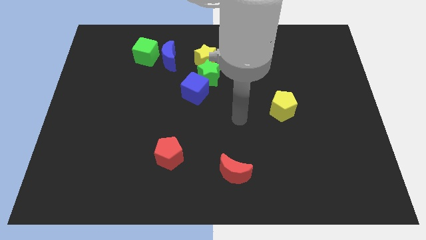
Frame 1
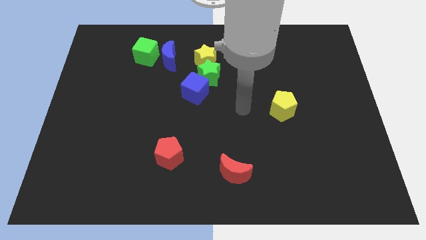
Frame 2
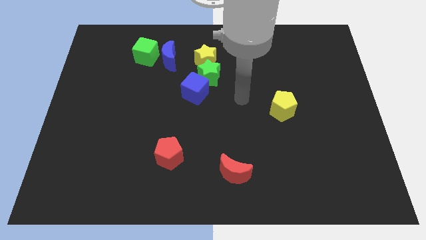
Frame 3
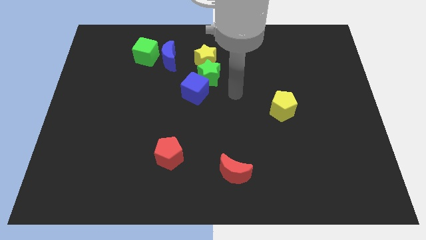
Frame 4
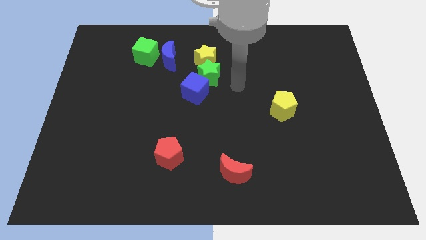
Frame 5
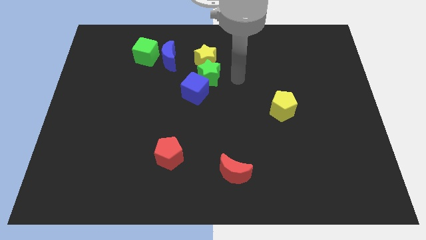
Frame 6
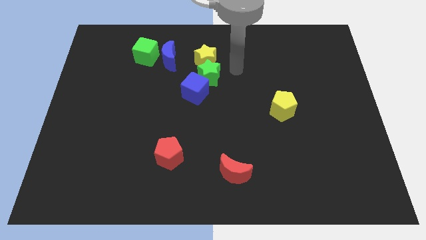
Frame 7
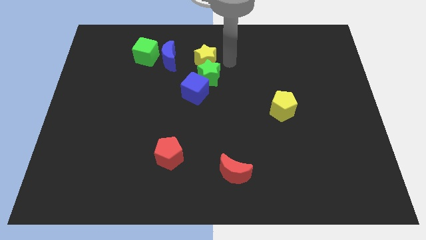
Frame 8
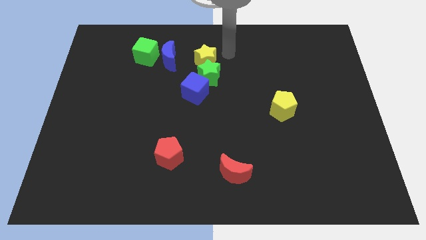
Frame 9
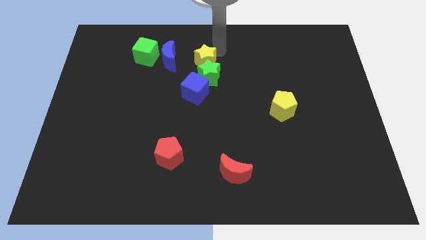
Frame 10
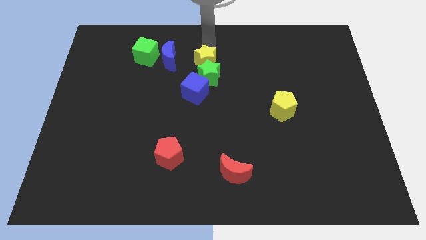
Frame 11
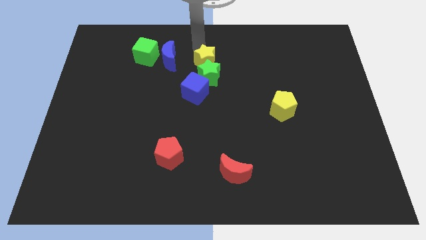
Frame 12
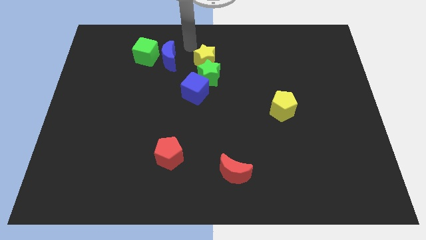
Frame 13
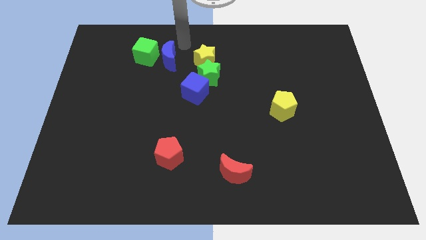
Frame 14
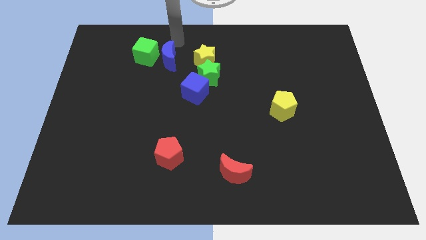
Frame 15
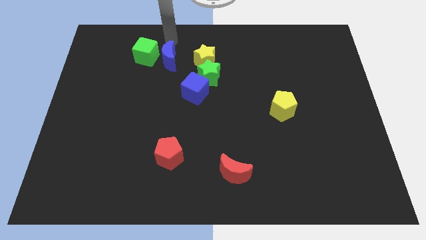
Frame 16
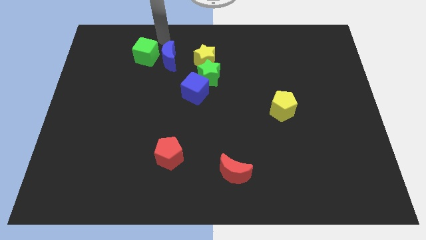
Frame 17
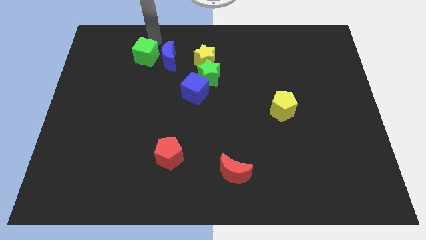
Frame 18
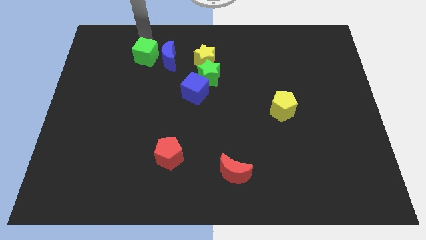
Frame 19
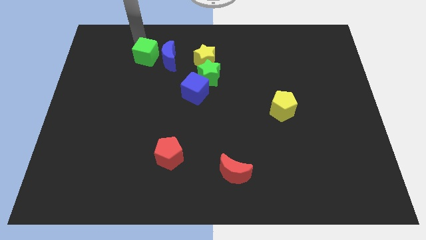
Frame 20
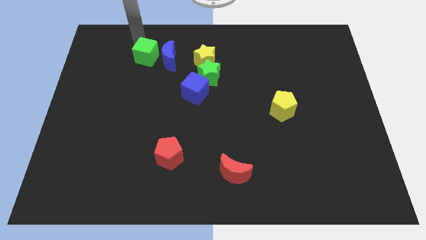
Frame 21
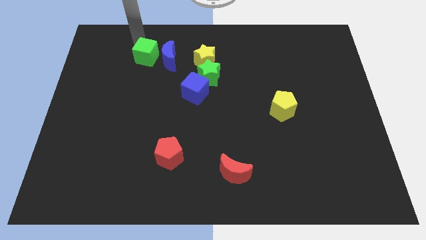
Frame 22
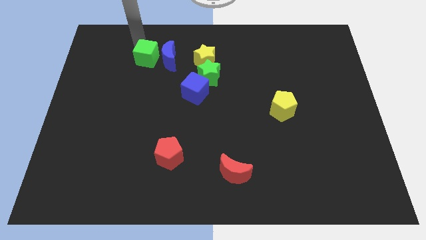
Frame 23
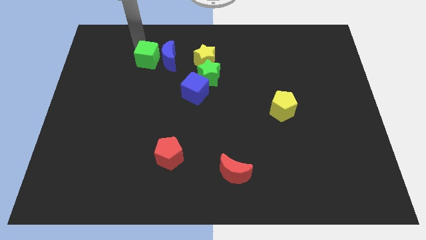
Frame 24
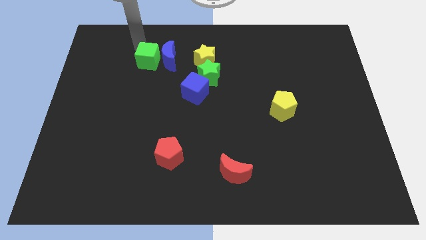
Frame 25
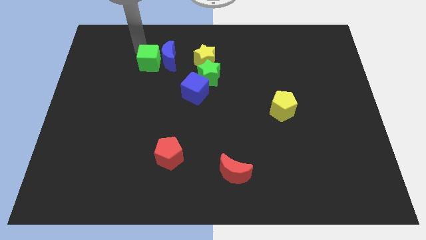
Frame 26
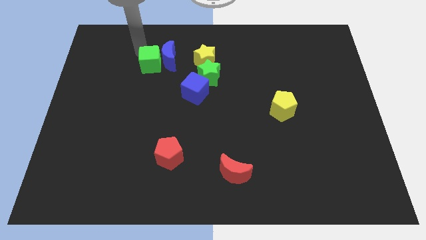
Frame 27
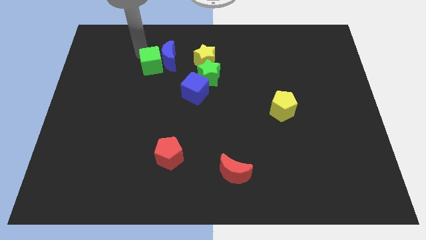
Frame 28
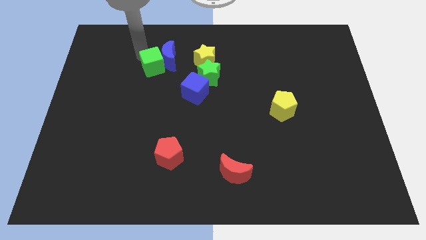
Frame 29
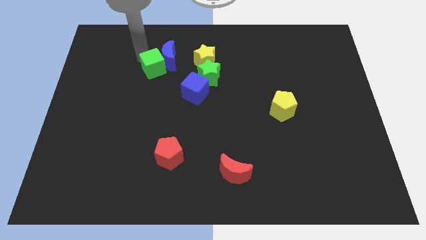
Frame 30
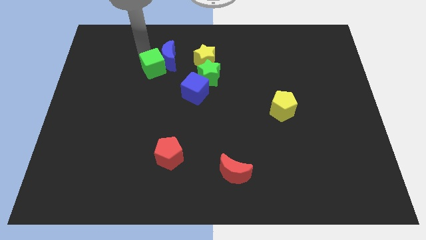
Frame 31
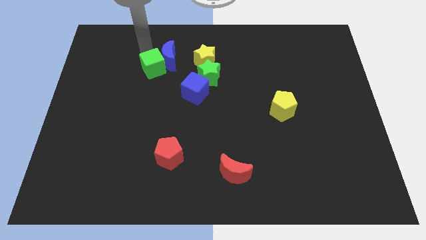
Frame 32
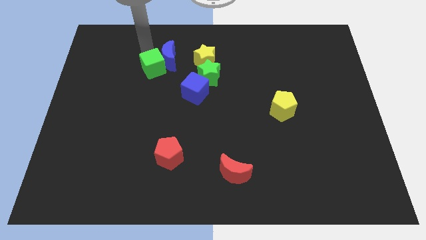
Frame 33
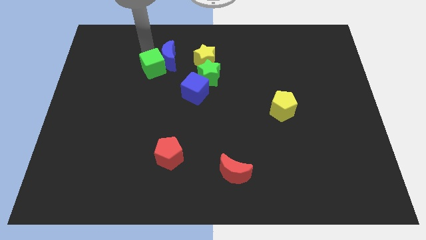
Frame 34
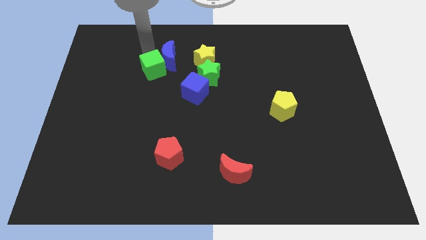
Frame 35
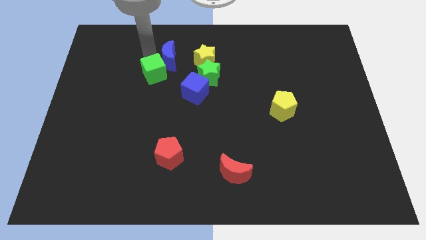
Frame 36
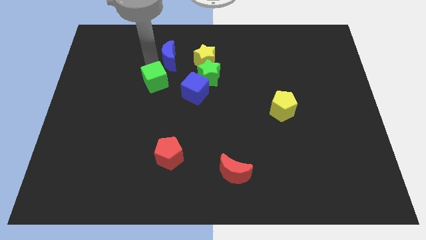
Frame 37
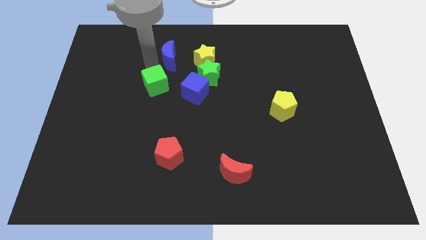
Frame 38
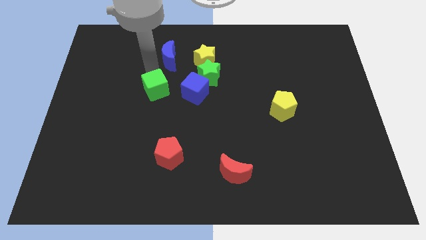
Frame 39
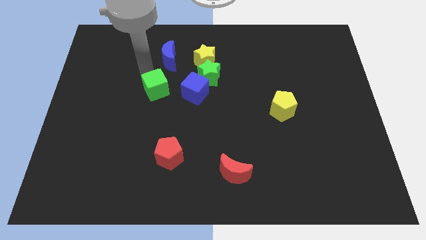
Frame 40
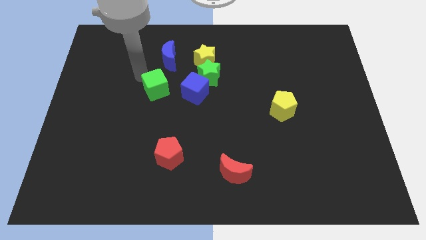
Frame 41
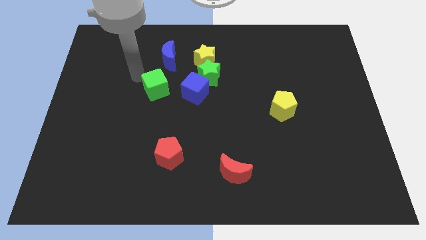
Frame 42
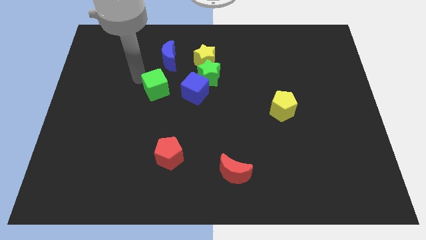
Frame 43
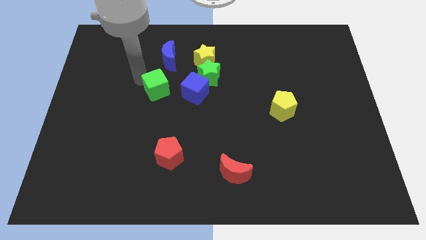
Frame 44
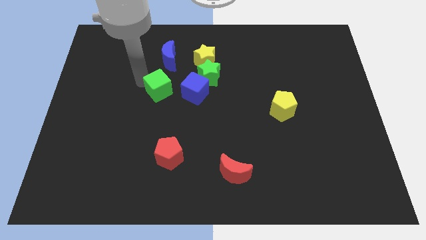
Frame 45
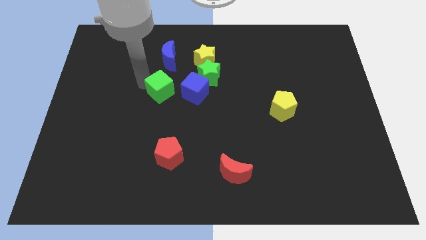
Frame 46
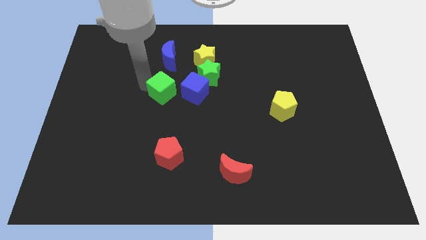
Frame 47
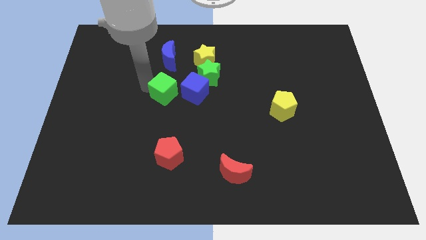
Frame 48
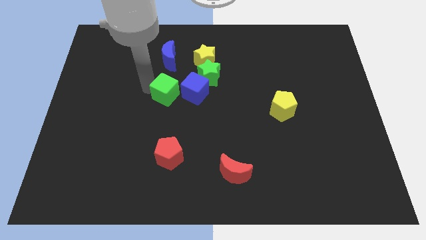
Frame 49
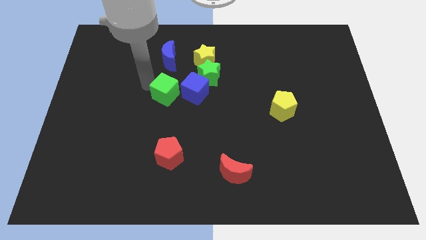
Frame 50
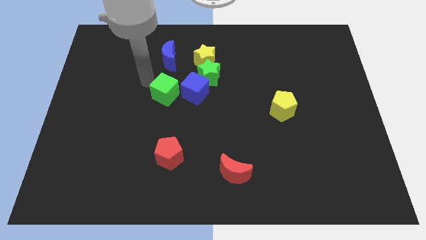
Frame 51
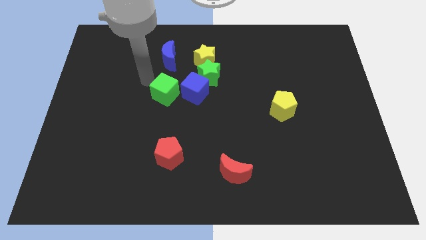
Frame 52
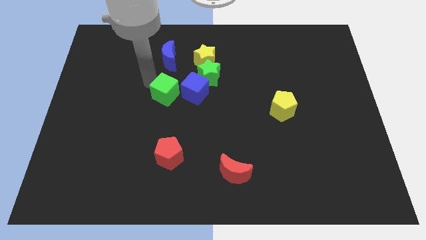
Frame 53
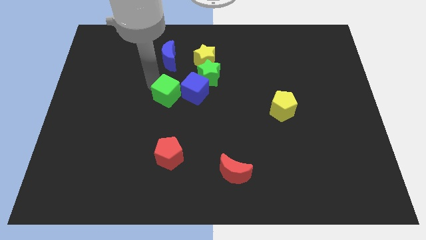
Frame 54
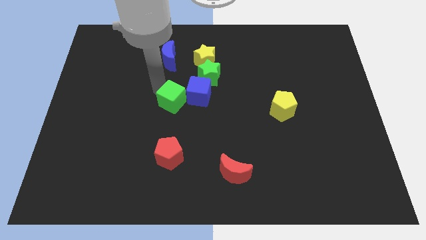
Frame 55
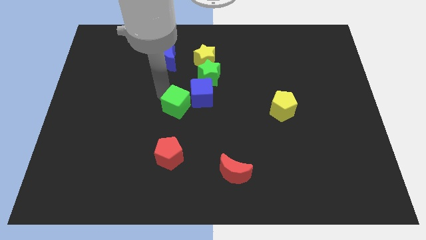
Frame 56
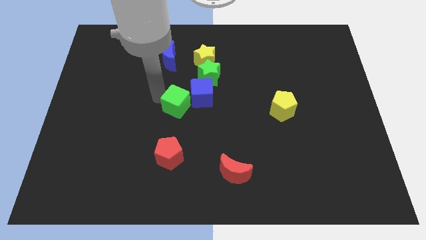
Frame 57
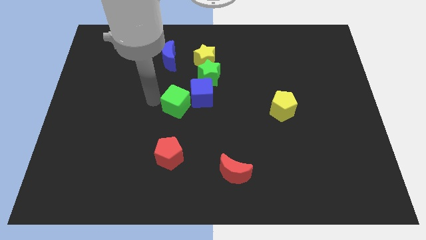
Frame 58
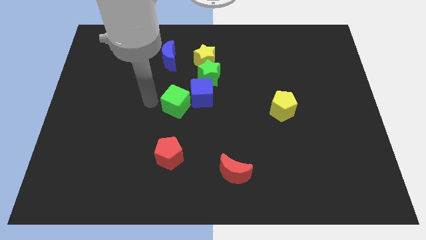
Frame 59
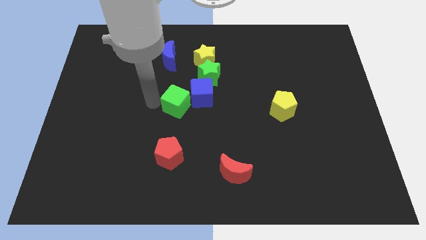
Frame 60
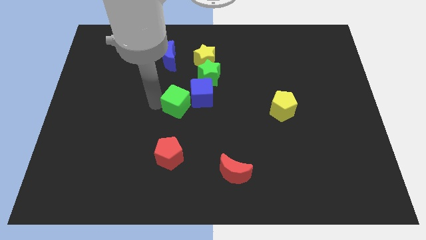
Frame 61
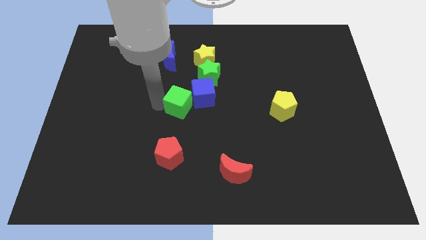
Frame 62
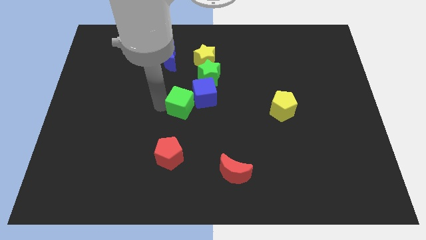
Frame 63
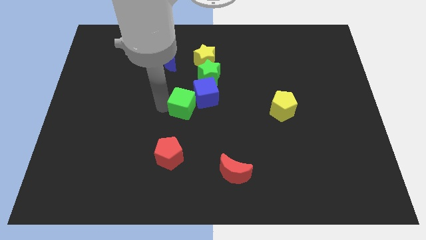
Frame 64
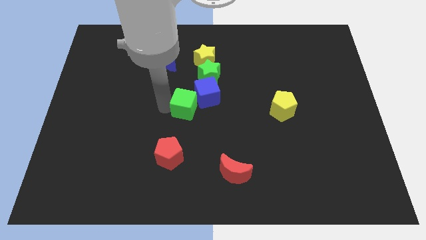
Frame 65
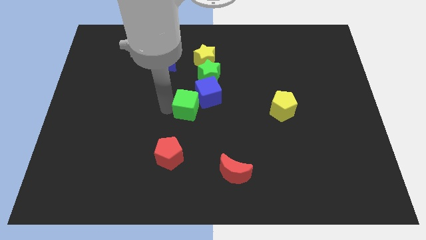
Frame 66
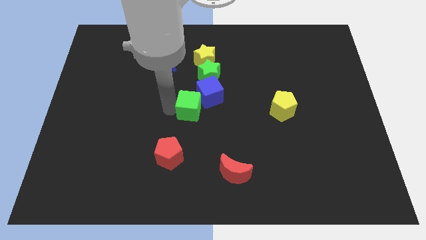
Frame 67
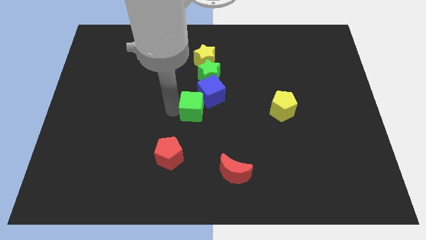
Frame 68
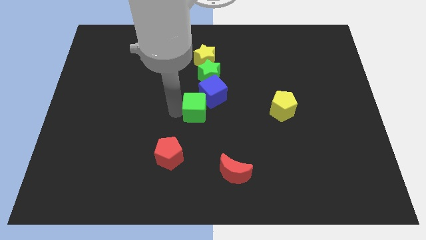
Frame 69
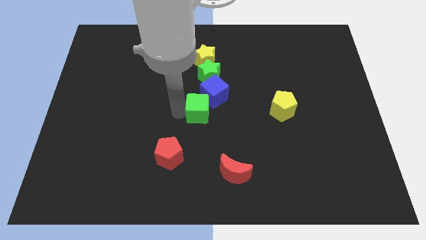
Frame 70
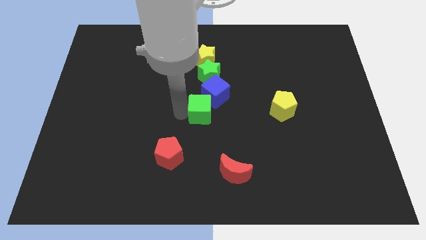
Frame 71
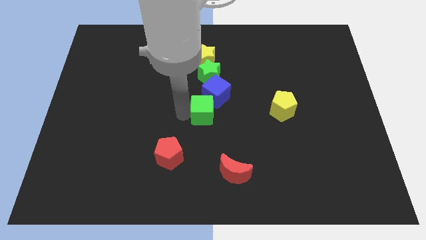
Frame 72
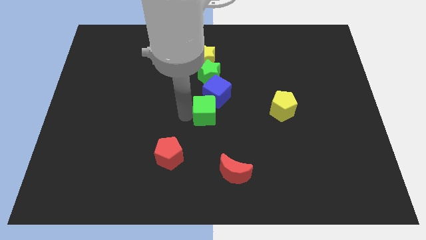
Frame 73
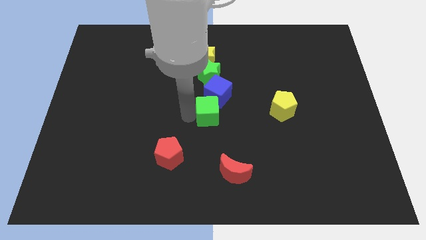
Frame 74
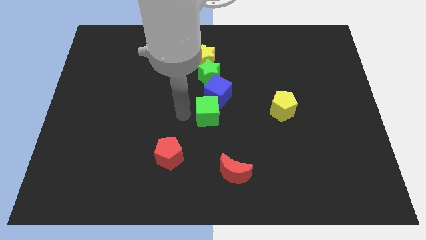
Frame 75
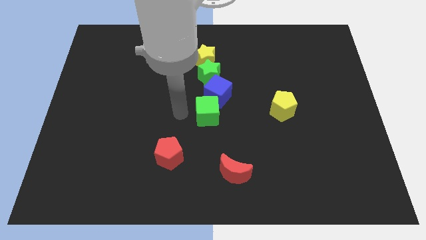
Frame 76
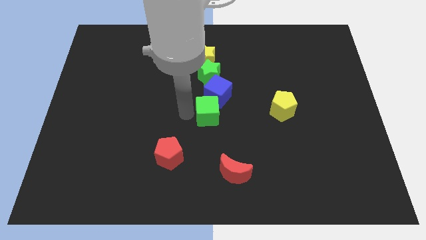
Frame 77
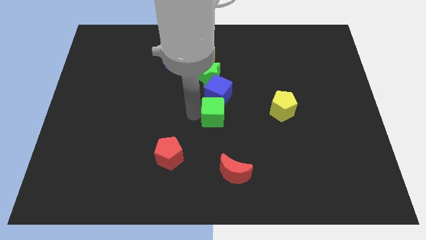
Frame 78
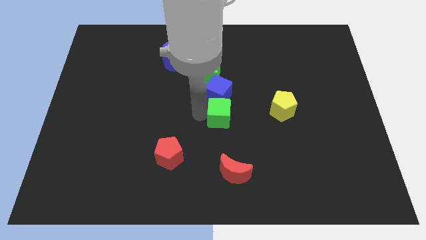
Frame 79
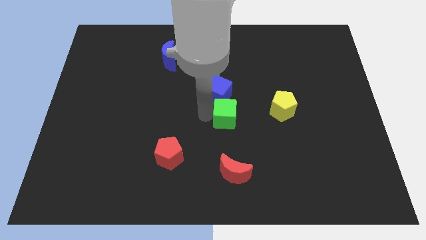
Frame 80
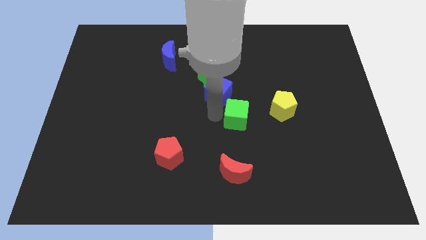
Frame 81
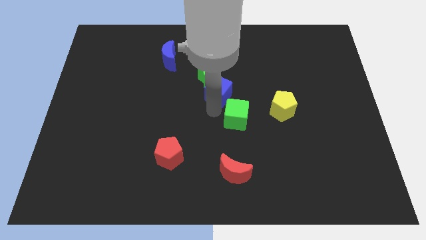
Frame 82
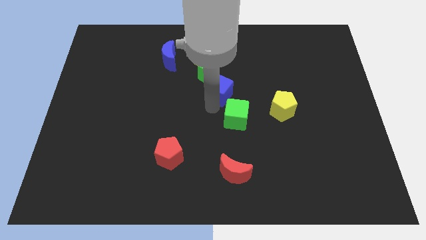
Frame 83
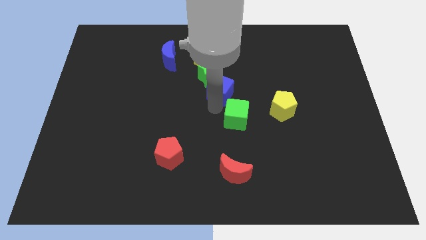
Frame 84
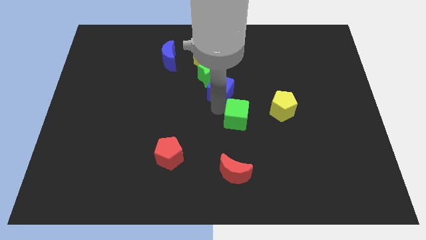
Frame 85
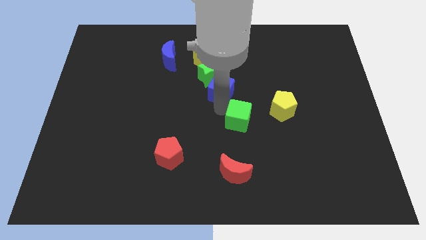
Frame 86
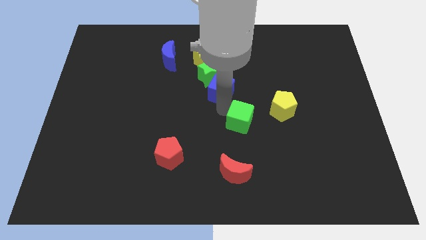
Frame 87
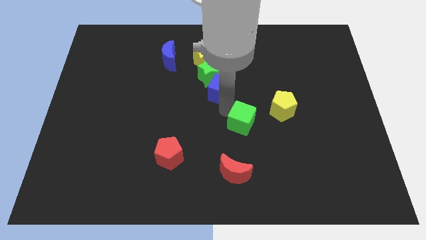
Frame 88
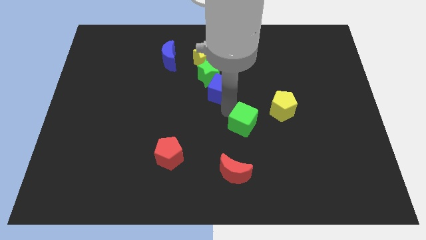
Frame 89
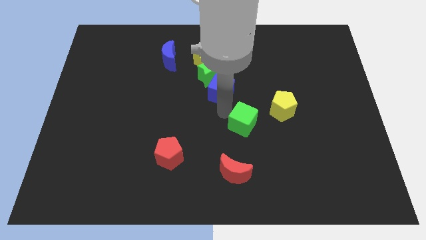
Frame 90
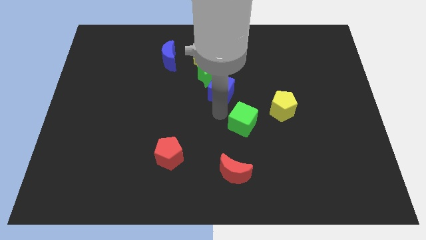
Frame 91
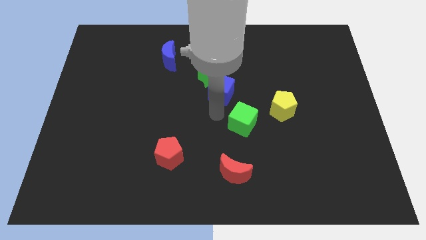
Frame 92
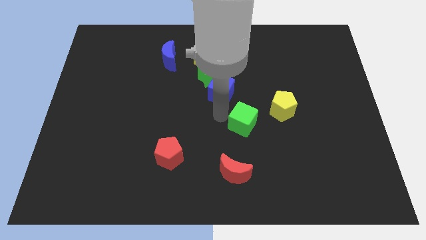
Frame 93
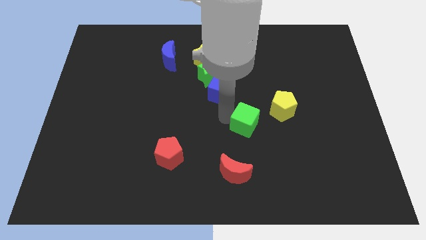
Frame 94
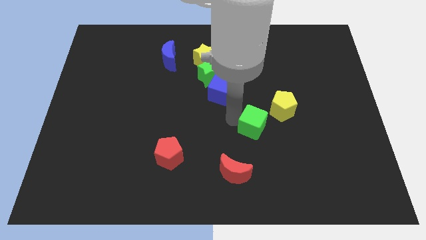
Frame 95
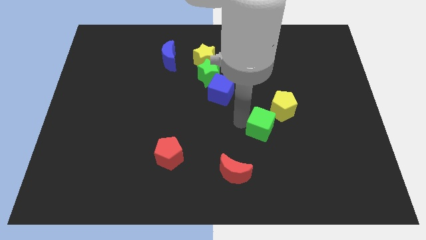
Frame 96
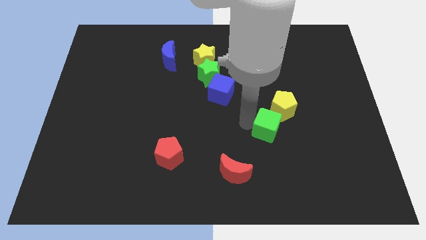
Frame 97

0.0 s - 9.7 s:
slide the green cube below the yellow pentagon
